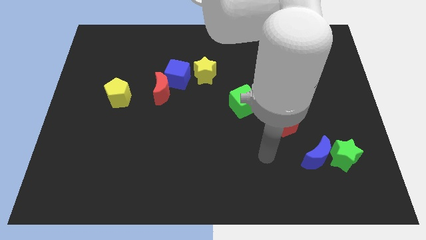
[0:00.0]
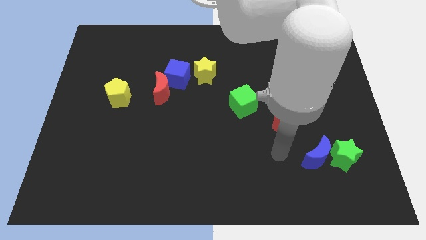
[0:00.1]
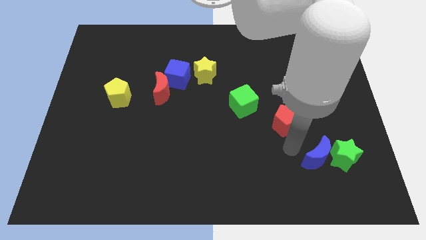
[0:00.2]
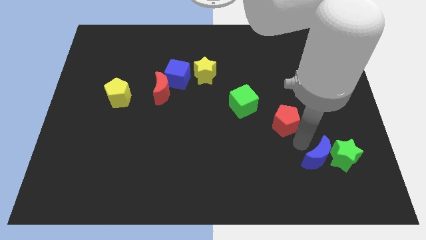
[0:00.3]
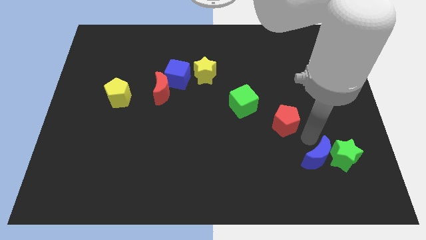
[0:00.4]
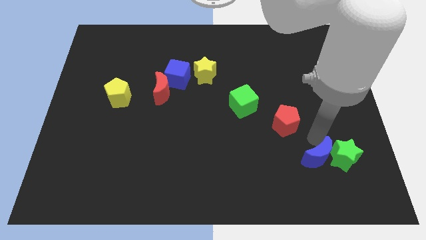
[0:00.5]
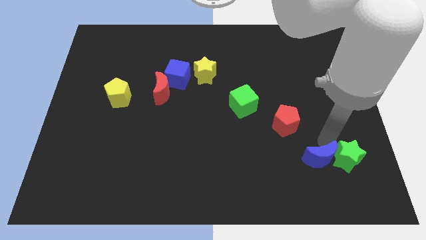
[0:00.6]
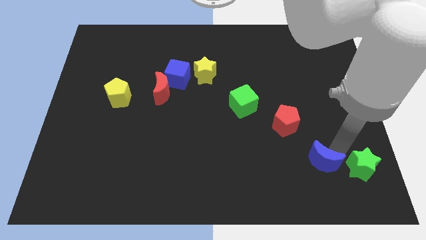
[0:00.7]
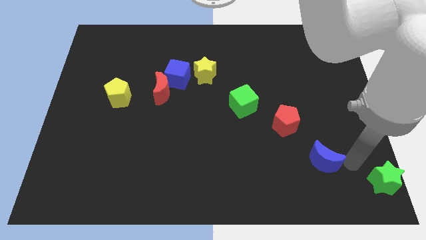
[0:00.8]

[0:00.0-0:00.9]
separate the blue moon from the green star

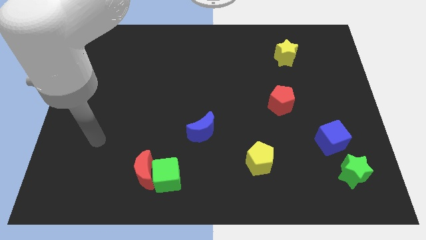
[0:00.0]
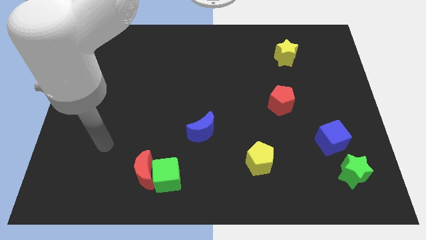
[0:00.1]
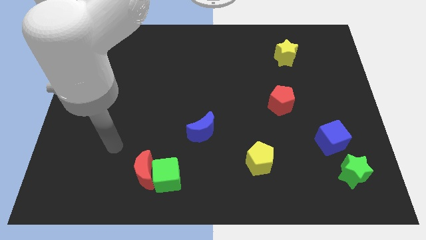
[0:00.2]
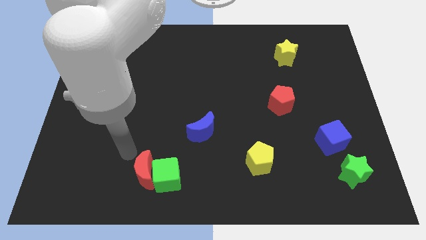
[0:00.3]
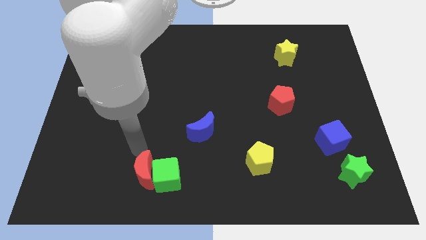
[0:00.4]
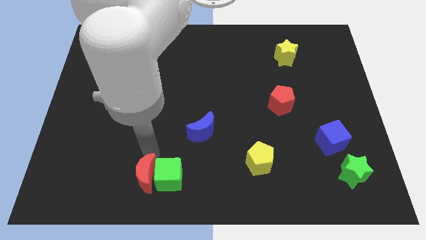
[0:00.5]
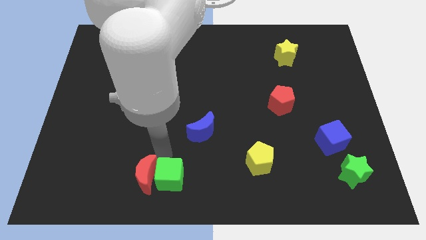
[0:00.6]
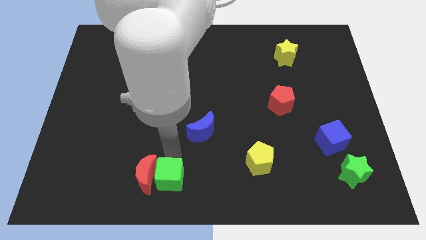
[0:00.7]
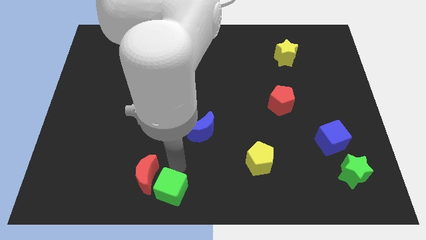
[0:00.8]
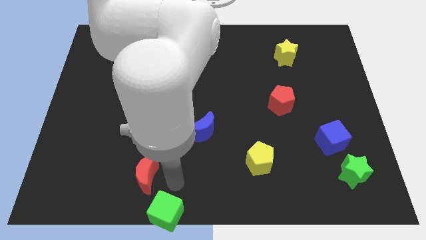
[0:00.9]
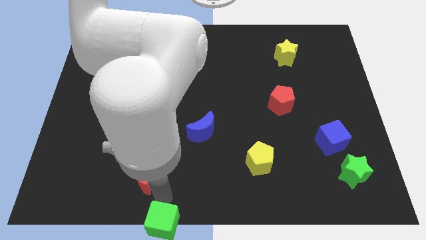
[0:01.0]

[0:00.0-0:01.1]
separate the red moon from the green cube

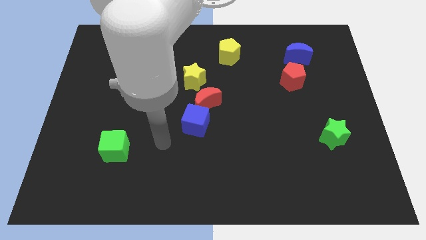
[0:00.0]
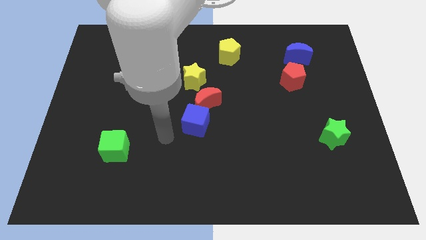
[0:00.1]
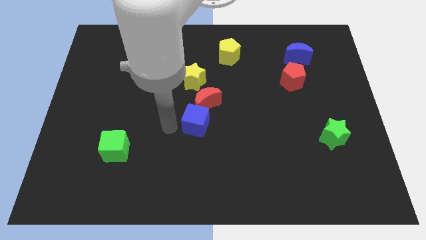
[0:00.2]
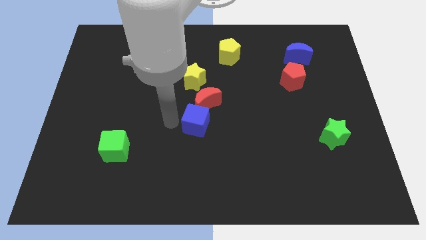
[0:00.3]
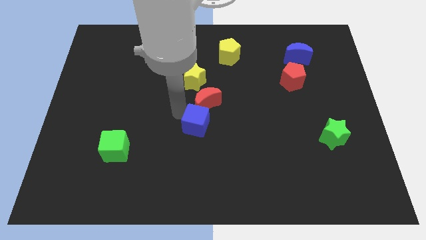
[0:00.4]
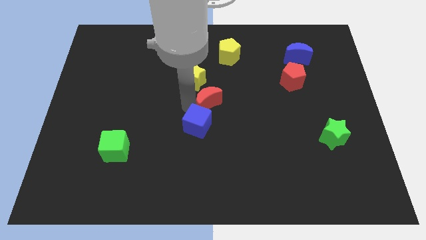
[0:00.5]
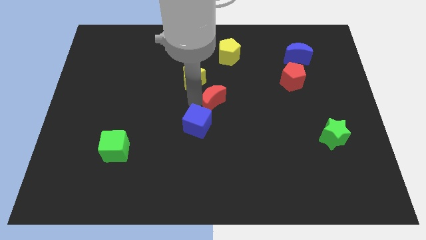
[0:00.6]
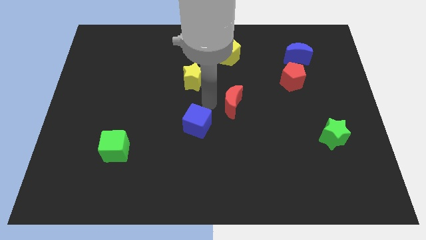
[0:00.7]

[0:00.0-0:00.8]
pull the blue cube apart from the red moon

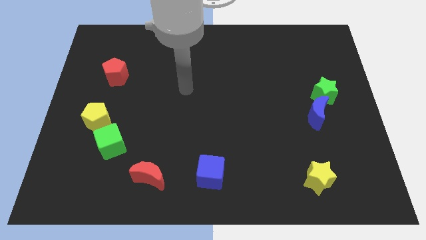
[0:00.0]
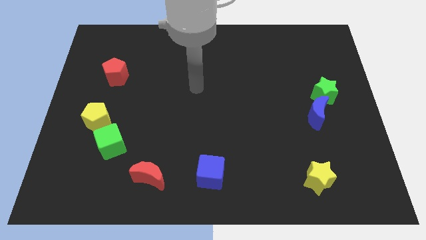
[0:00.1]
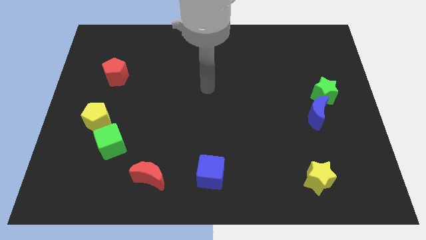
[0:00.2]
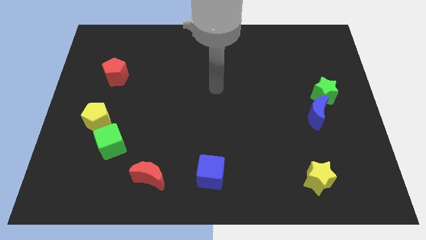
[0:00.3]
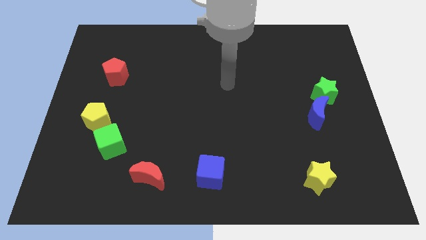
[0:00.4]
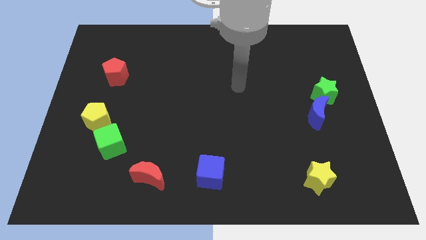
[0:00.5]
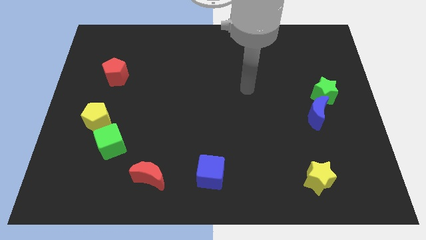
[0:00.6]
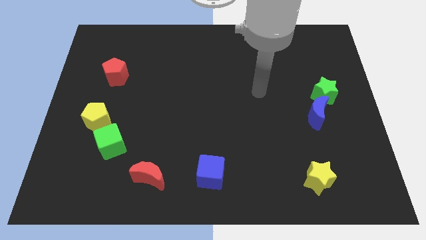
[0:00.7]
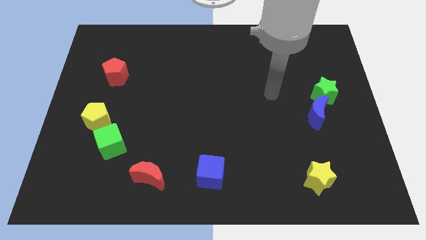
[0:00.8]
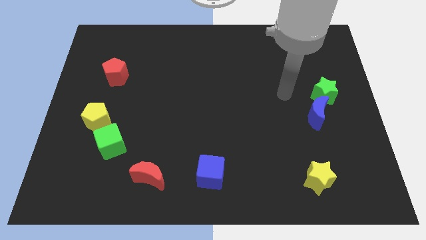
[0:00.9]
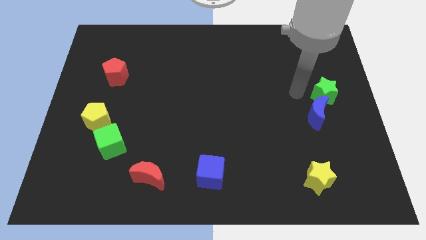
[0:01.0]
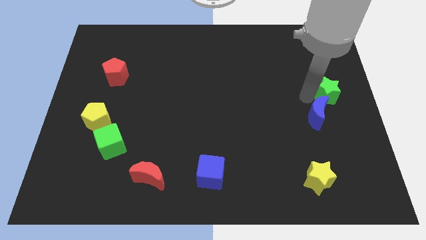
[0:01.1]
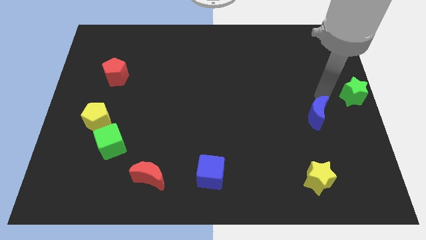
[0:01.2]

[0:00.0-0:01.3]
move the blue moon away from the green star

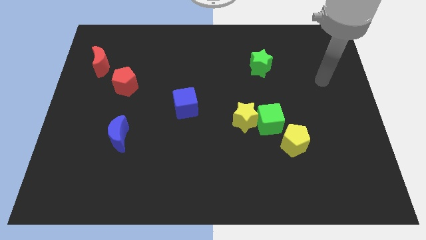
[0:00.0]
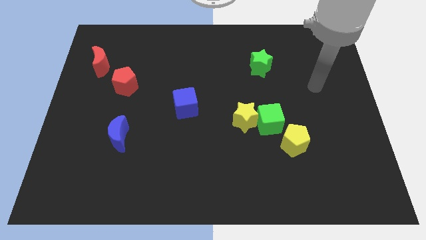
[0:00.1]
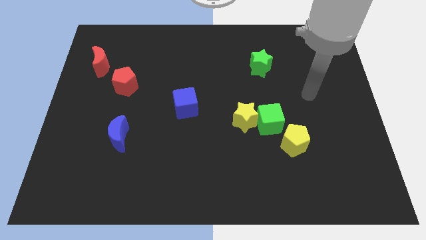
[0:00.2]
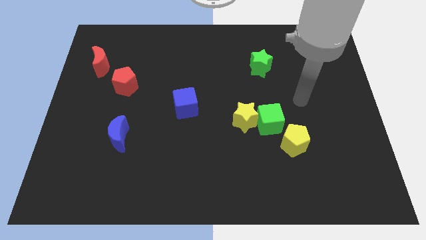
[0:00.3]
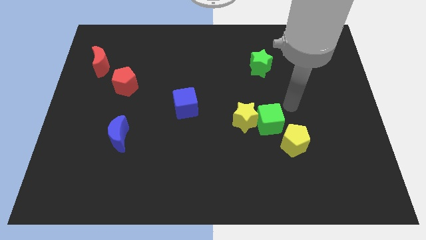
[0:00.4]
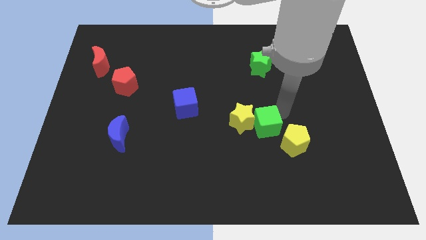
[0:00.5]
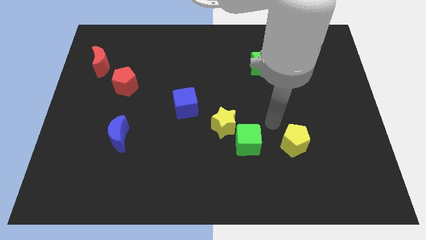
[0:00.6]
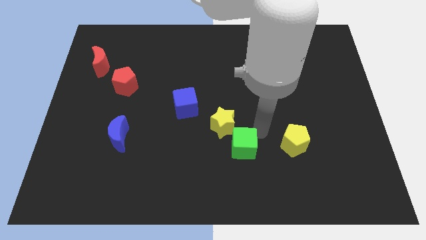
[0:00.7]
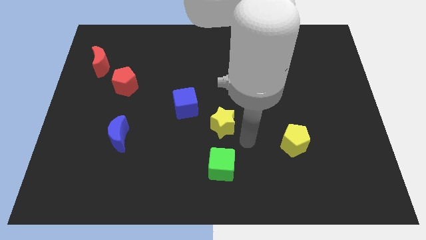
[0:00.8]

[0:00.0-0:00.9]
pull the yellow star apart from the green cube

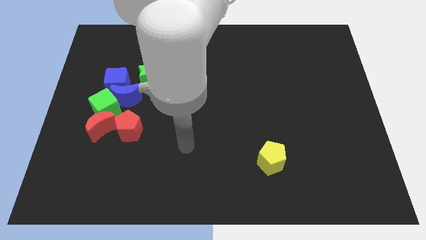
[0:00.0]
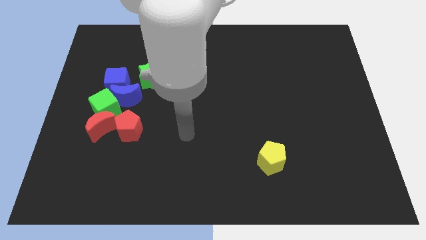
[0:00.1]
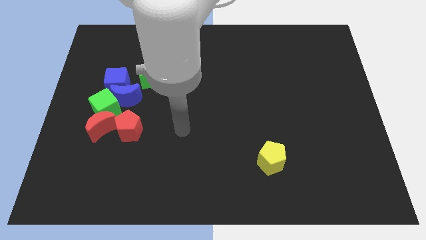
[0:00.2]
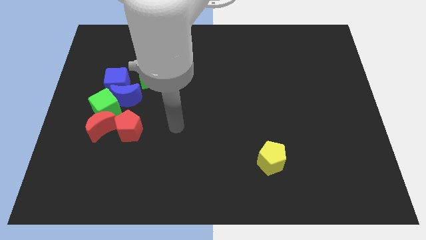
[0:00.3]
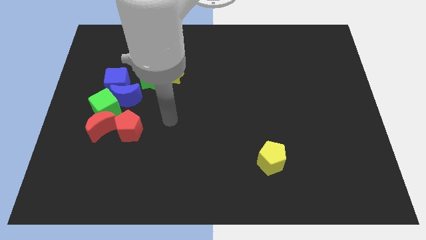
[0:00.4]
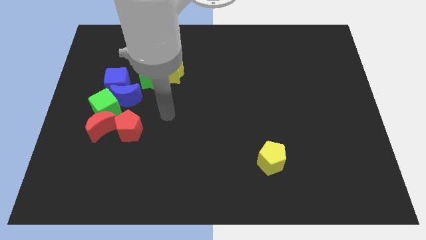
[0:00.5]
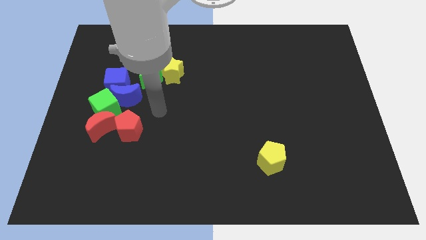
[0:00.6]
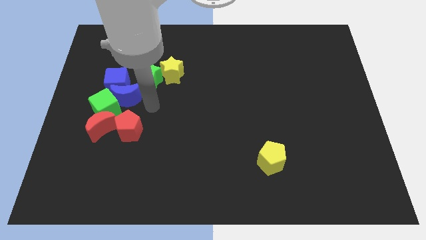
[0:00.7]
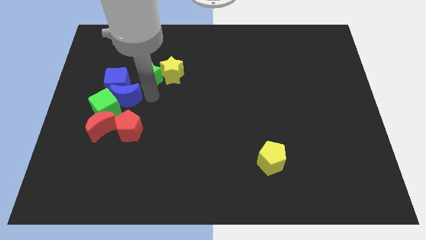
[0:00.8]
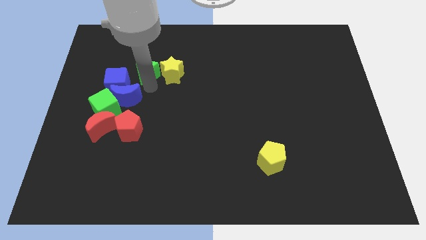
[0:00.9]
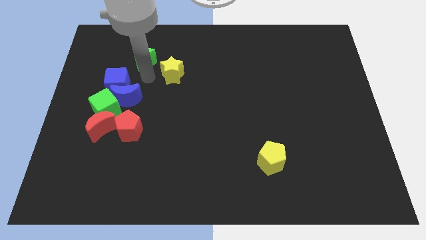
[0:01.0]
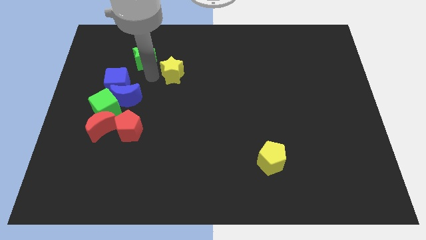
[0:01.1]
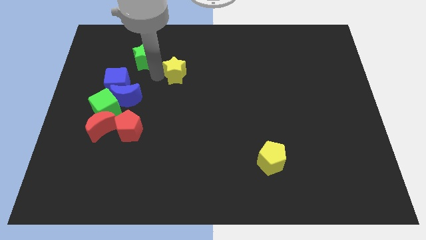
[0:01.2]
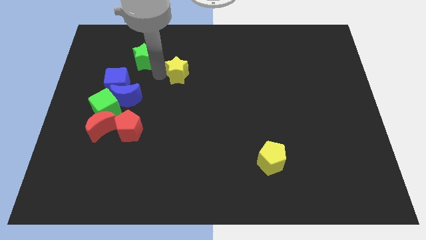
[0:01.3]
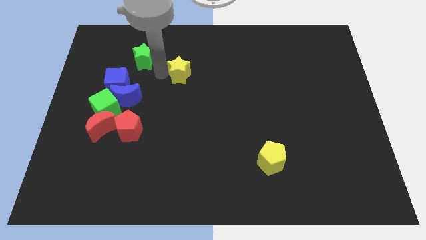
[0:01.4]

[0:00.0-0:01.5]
move the yellow star away from the green star

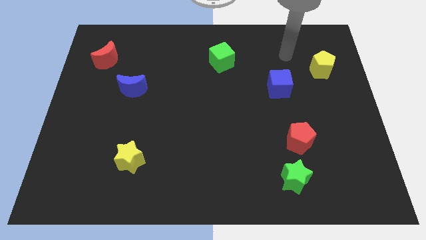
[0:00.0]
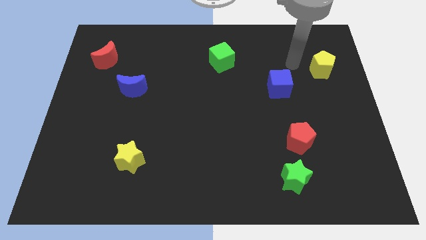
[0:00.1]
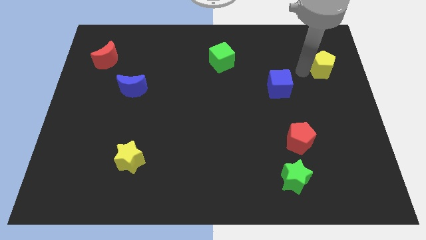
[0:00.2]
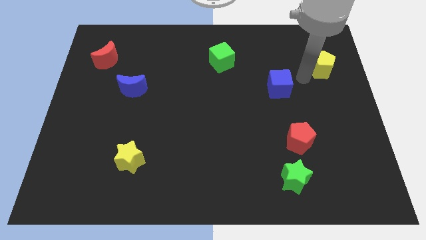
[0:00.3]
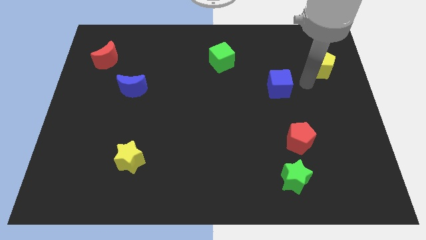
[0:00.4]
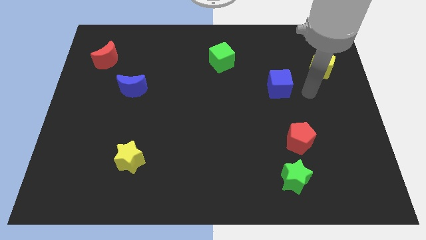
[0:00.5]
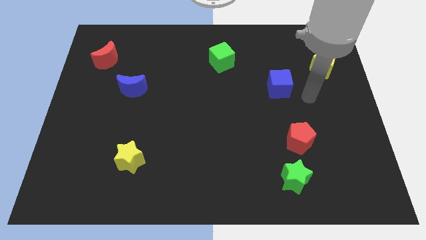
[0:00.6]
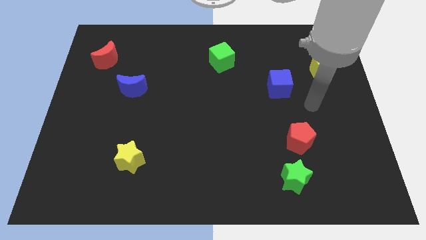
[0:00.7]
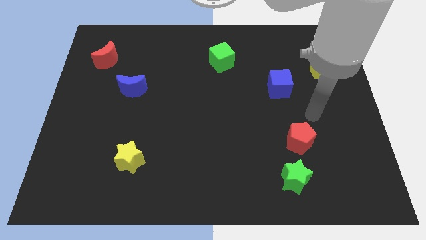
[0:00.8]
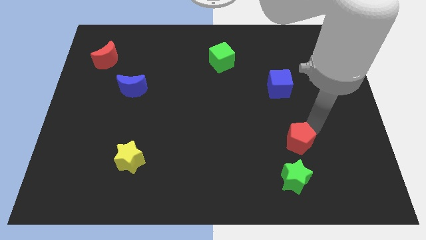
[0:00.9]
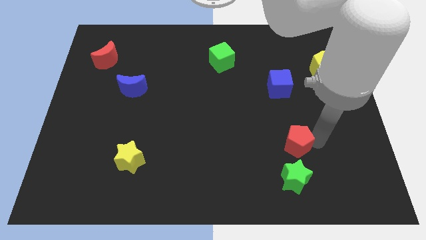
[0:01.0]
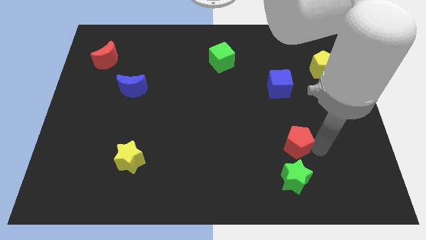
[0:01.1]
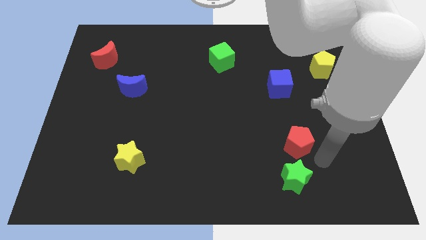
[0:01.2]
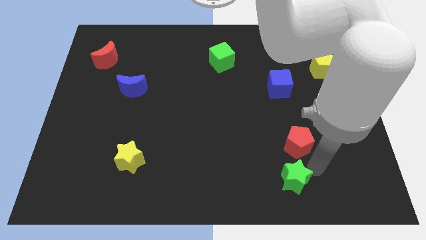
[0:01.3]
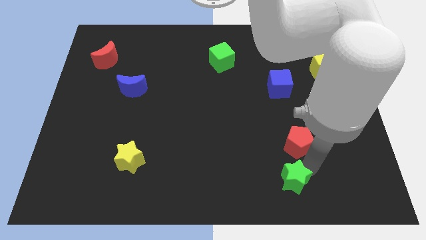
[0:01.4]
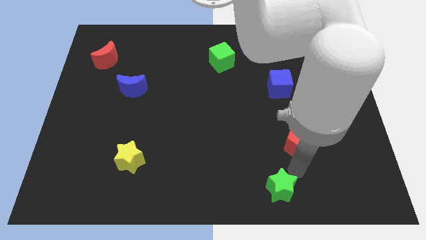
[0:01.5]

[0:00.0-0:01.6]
pull the red pentagon apart from the green star

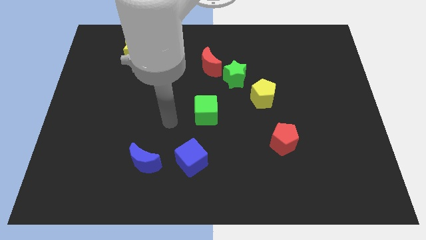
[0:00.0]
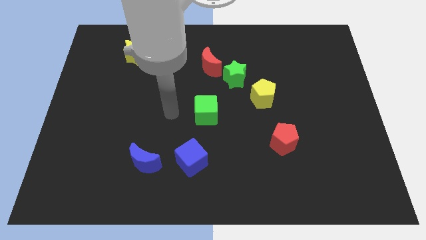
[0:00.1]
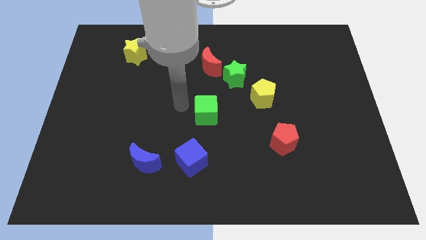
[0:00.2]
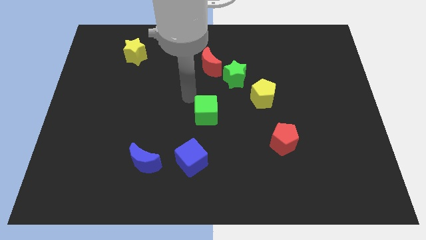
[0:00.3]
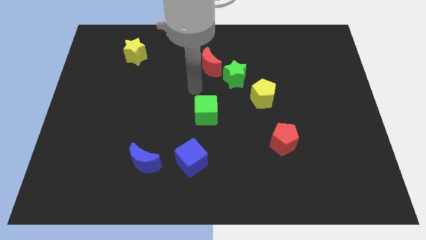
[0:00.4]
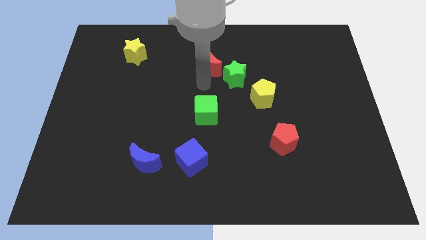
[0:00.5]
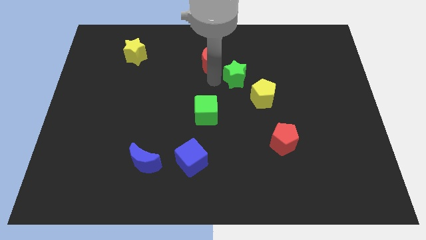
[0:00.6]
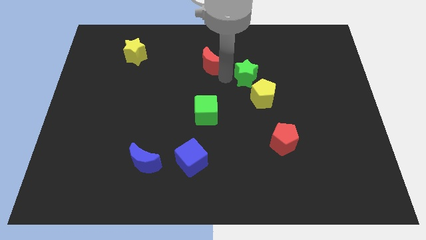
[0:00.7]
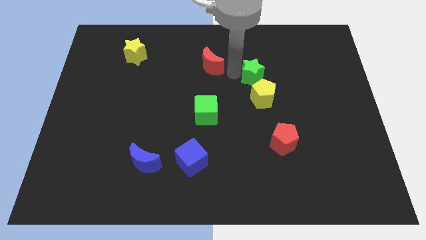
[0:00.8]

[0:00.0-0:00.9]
separate the red moon from the green star

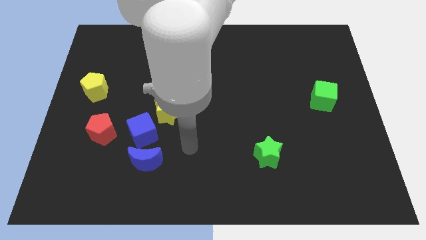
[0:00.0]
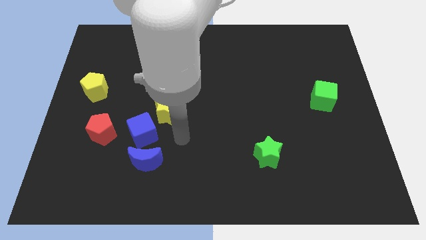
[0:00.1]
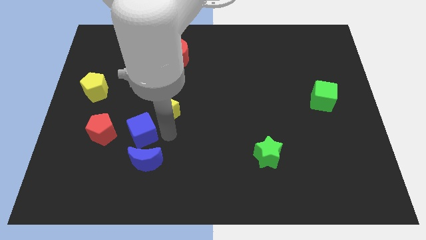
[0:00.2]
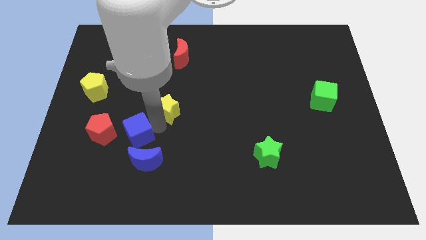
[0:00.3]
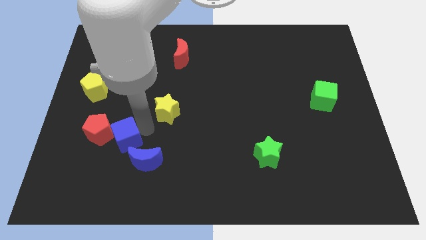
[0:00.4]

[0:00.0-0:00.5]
pull the yellow star apart from the blue cube
